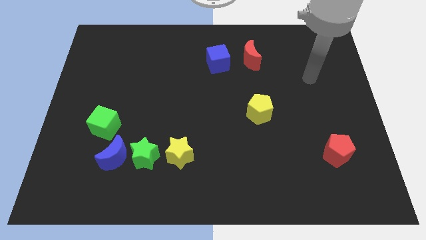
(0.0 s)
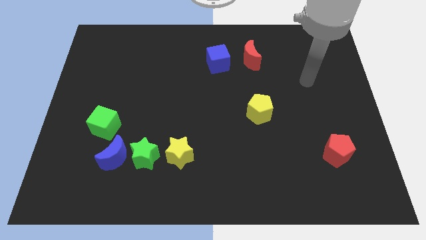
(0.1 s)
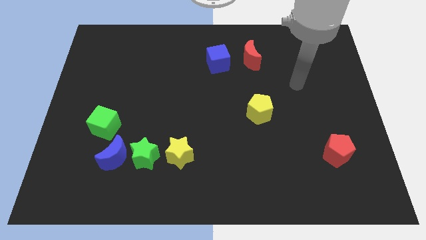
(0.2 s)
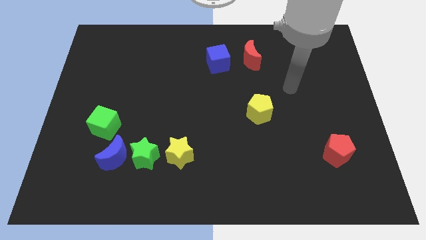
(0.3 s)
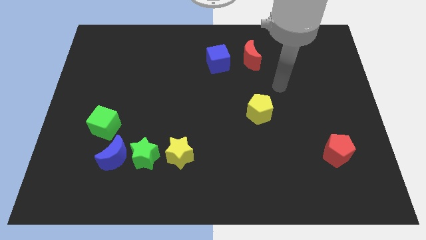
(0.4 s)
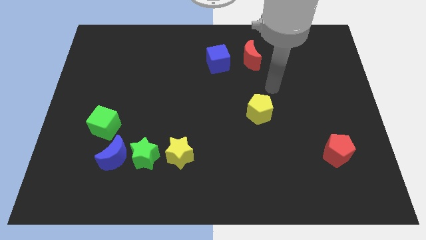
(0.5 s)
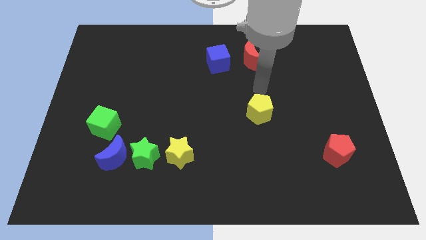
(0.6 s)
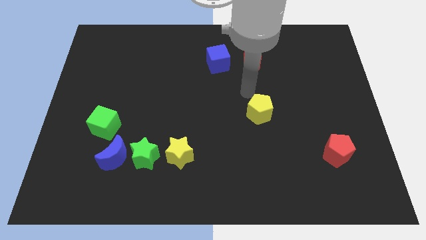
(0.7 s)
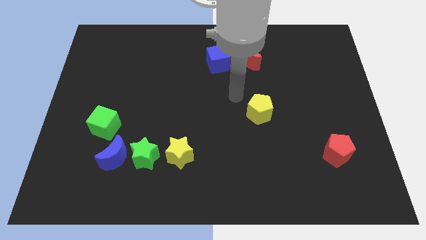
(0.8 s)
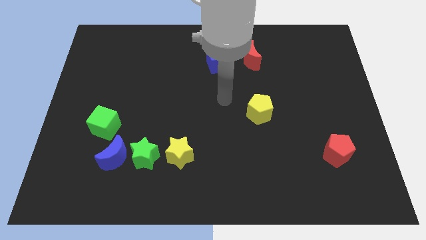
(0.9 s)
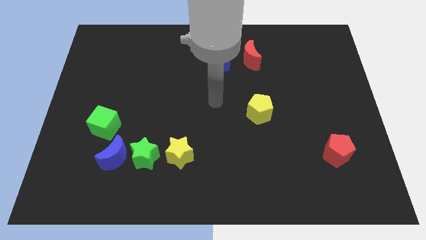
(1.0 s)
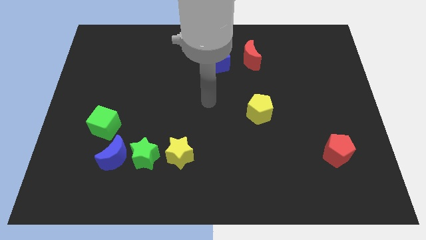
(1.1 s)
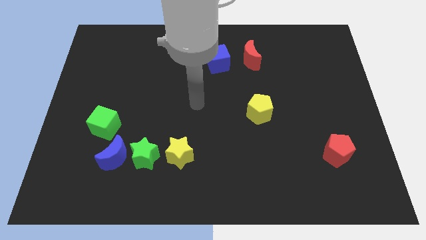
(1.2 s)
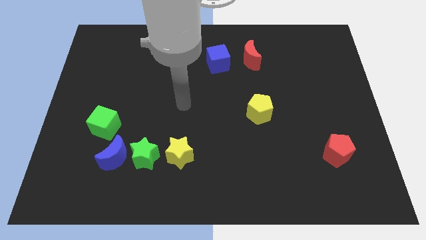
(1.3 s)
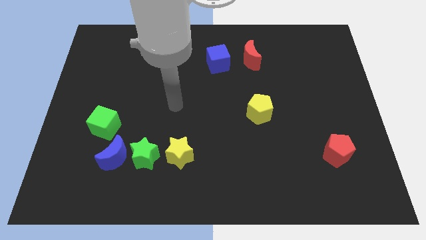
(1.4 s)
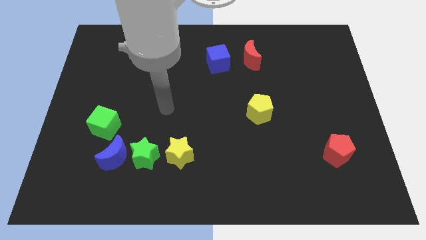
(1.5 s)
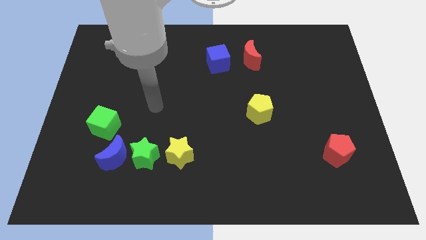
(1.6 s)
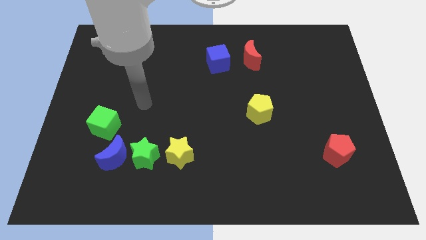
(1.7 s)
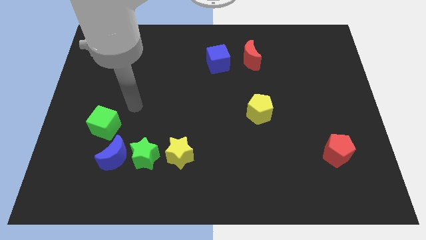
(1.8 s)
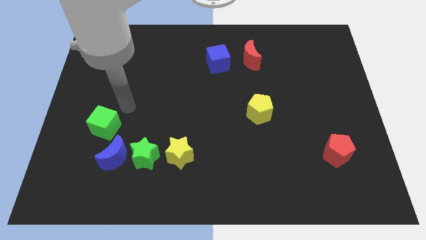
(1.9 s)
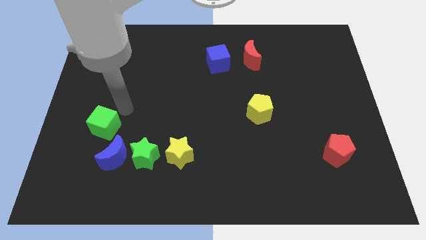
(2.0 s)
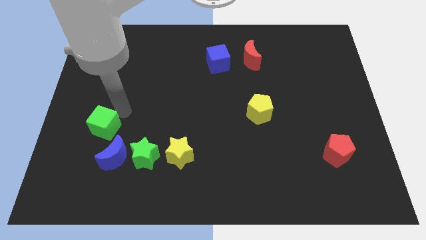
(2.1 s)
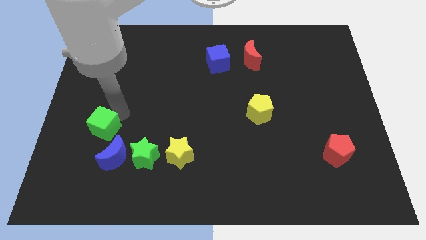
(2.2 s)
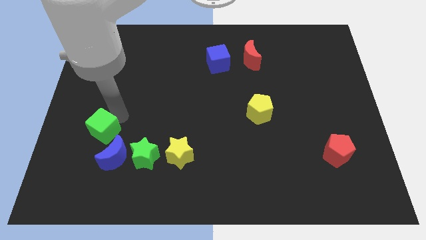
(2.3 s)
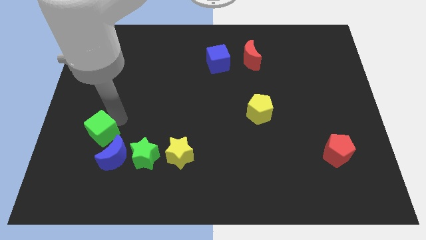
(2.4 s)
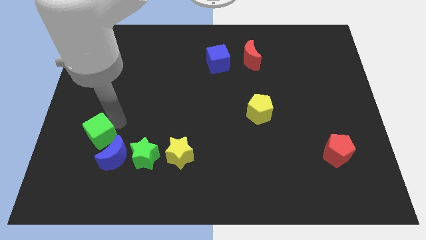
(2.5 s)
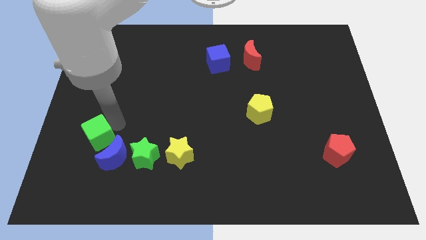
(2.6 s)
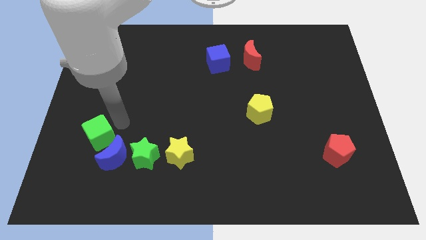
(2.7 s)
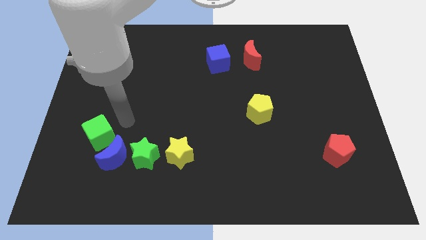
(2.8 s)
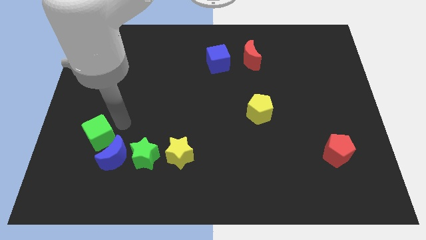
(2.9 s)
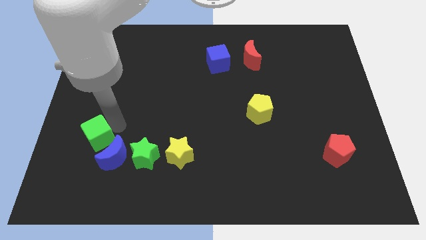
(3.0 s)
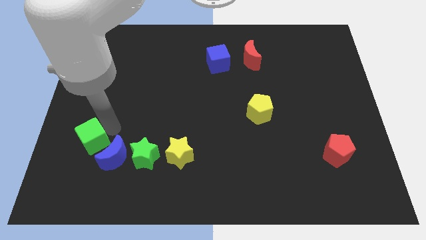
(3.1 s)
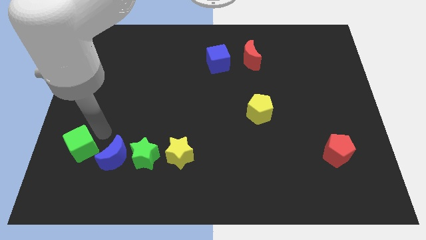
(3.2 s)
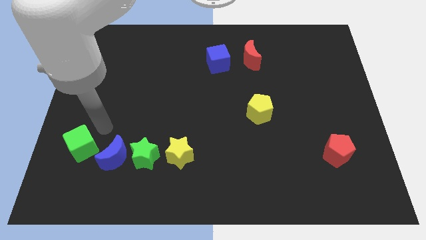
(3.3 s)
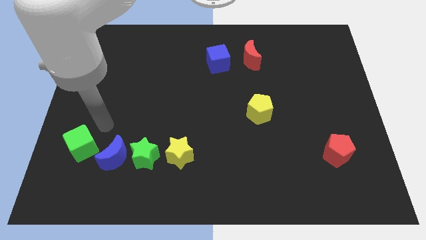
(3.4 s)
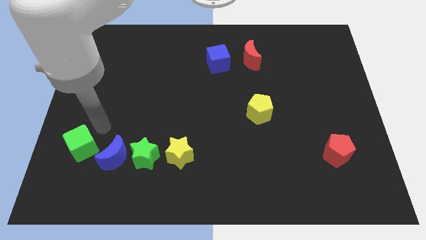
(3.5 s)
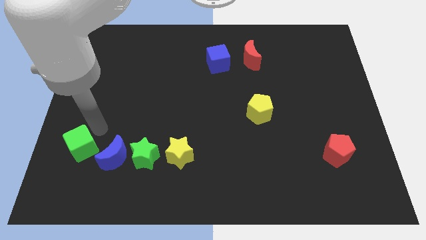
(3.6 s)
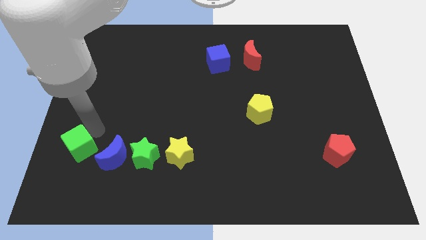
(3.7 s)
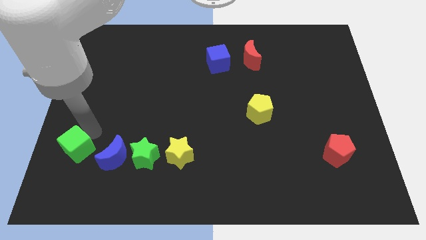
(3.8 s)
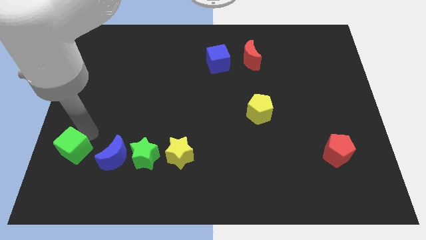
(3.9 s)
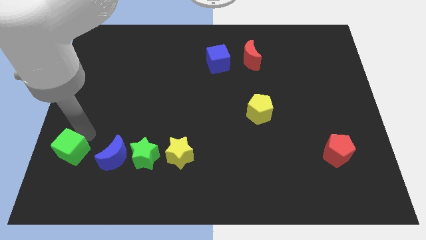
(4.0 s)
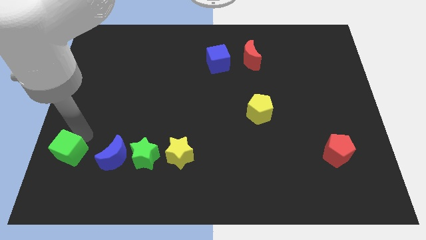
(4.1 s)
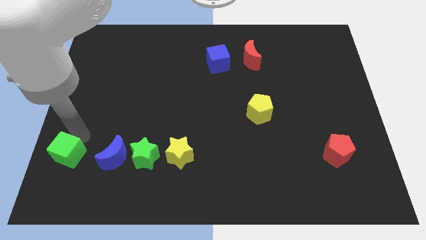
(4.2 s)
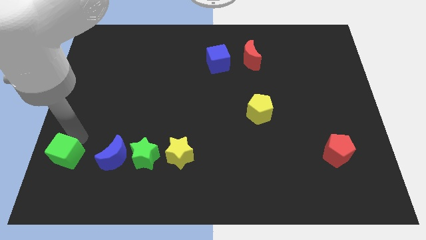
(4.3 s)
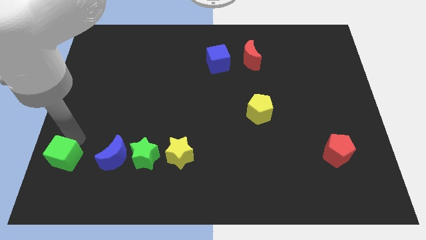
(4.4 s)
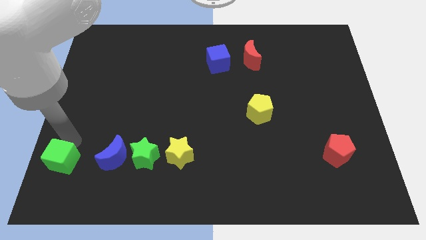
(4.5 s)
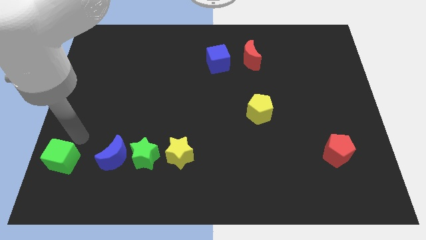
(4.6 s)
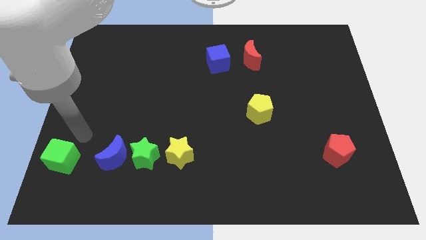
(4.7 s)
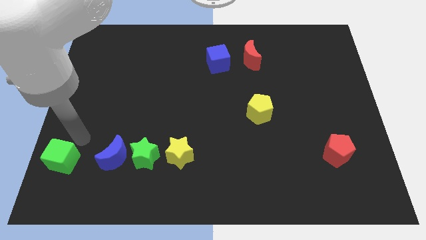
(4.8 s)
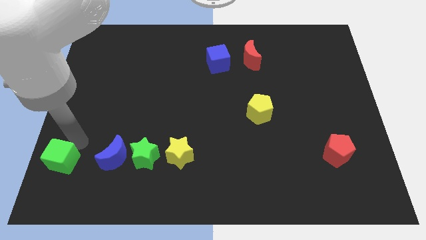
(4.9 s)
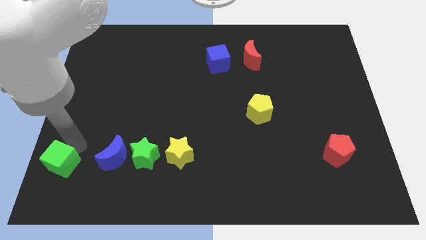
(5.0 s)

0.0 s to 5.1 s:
slide the green cube to the bottom left corner

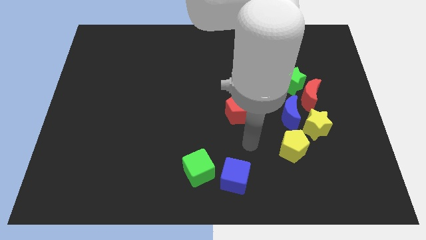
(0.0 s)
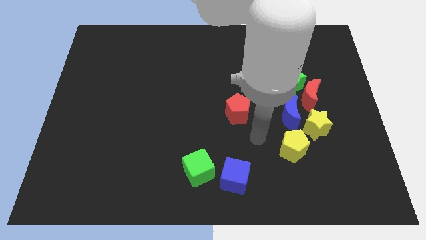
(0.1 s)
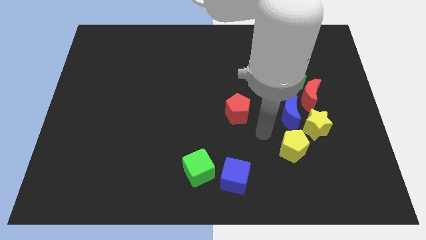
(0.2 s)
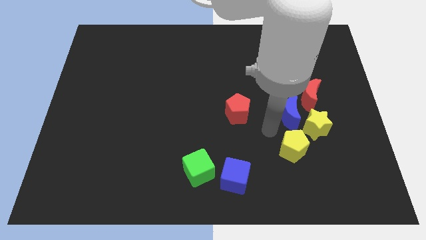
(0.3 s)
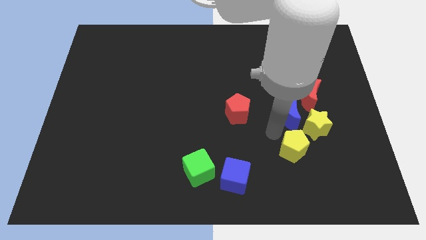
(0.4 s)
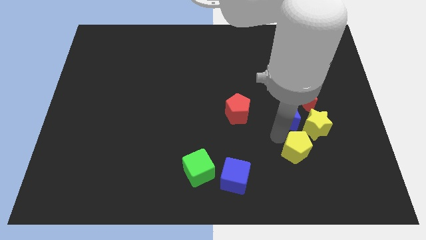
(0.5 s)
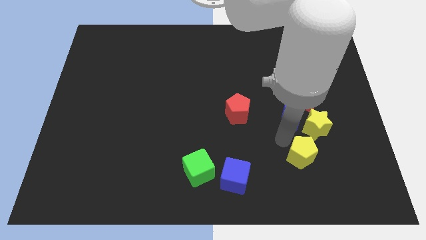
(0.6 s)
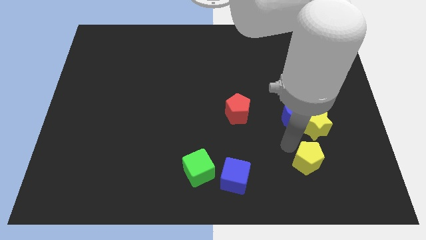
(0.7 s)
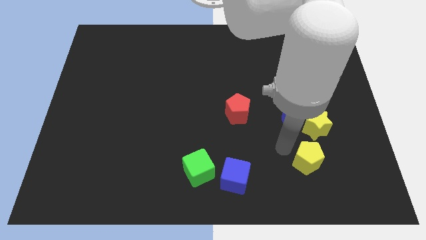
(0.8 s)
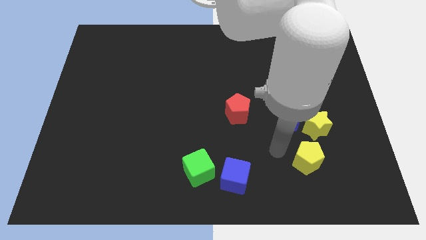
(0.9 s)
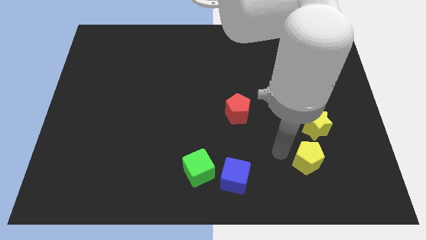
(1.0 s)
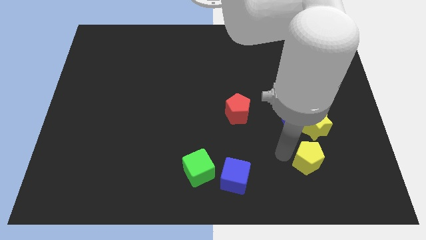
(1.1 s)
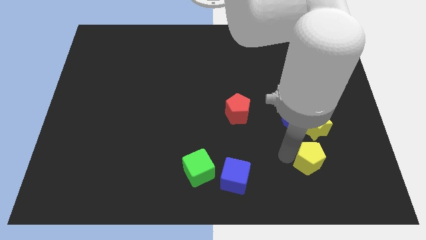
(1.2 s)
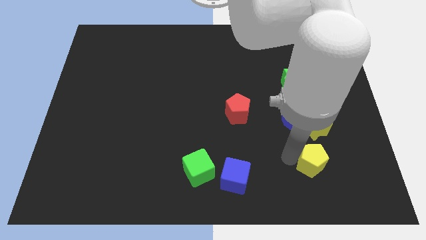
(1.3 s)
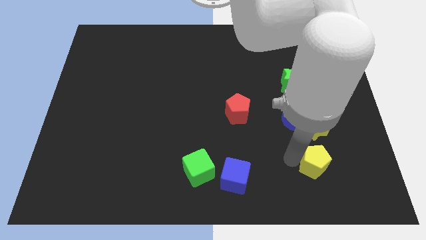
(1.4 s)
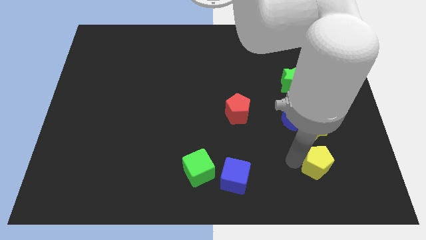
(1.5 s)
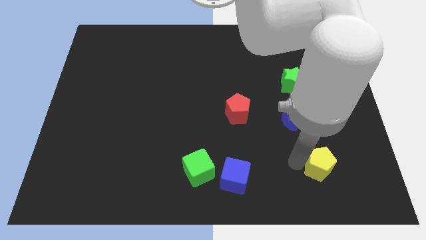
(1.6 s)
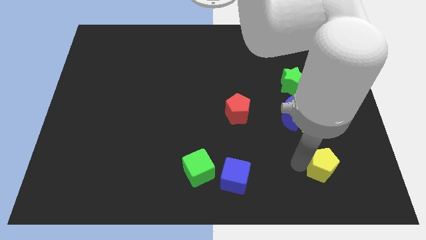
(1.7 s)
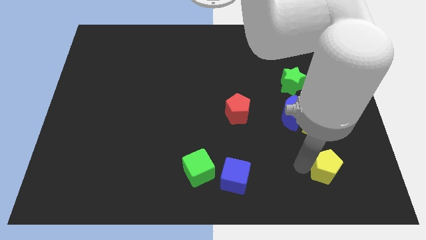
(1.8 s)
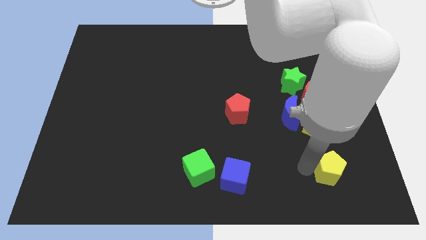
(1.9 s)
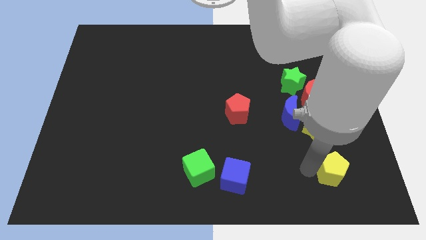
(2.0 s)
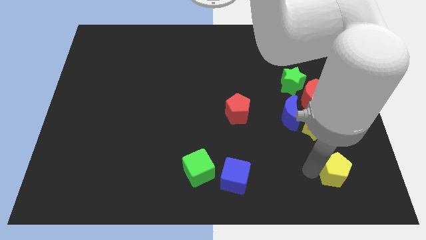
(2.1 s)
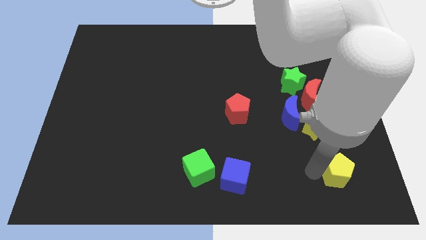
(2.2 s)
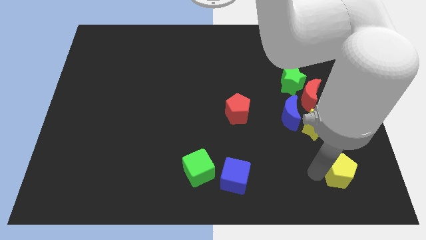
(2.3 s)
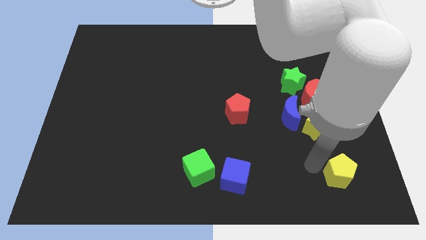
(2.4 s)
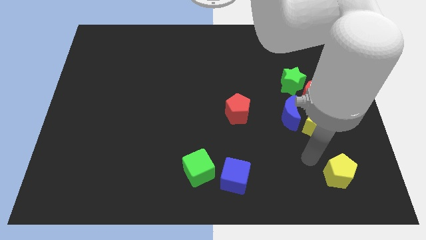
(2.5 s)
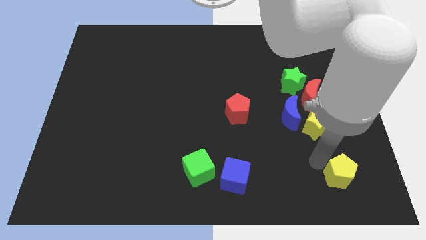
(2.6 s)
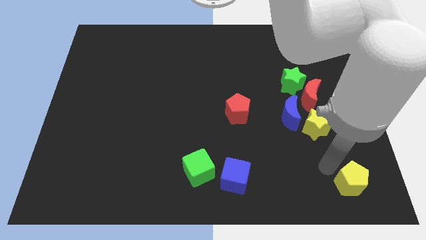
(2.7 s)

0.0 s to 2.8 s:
push the yellow pentagon to the bottom right

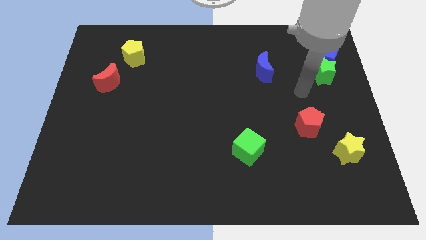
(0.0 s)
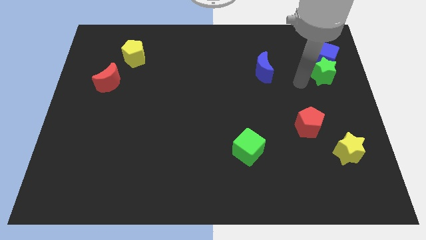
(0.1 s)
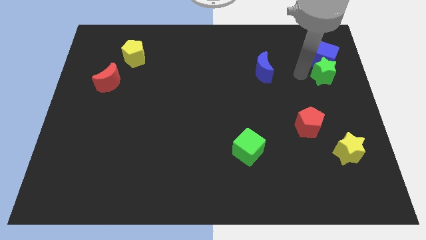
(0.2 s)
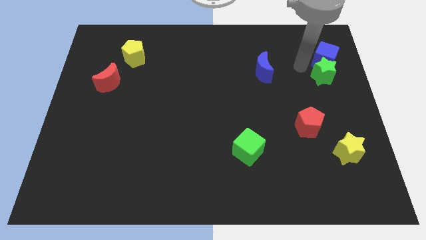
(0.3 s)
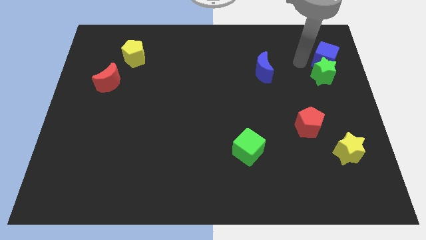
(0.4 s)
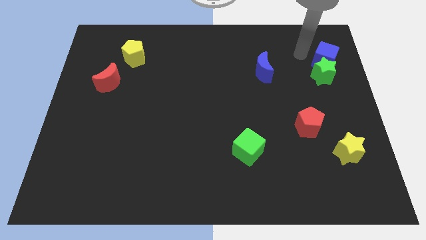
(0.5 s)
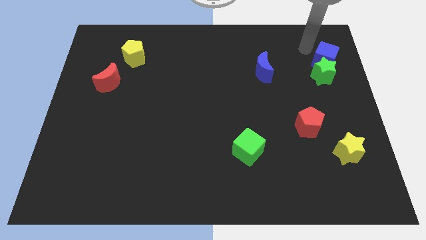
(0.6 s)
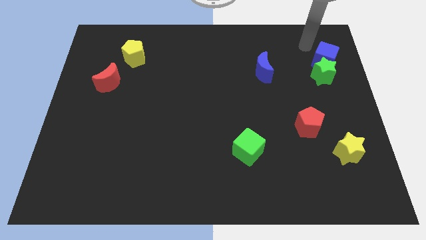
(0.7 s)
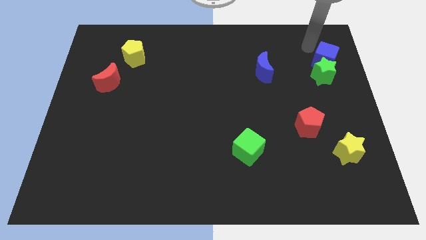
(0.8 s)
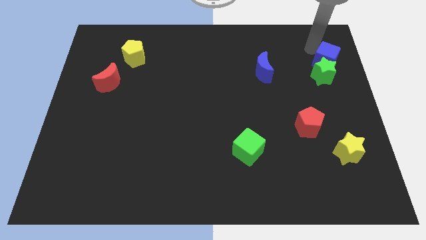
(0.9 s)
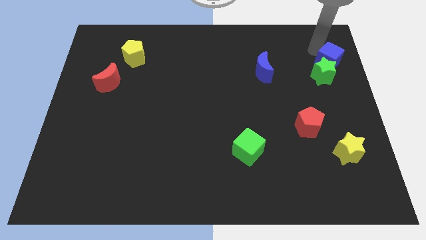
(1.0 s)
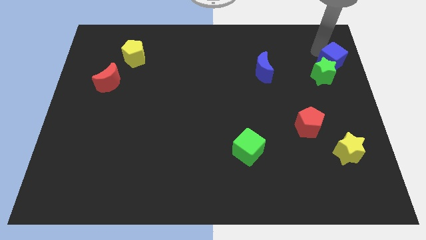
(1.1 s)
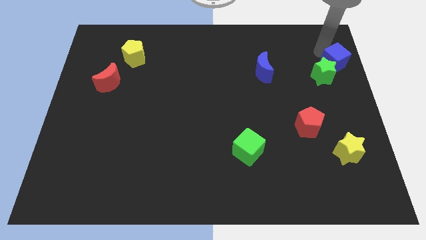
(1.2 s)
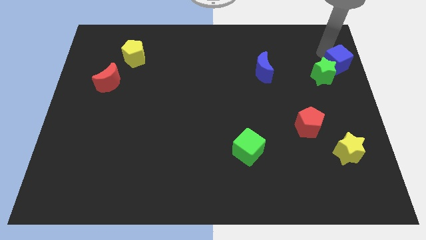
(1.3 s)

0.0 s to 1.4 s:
slide the blue cube to the right side of the board
